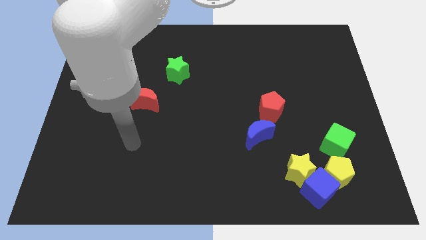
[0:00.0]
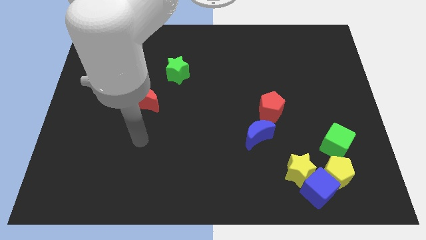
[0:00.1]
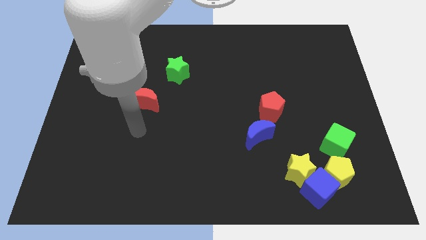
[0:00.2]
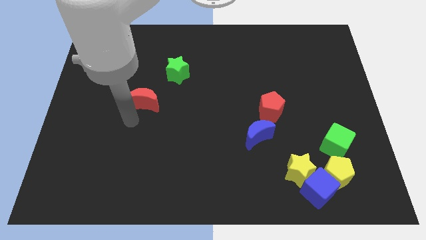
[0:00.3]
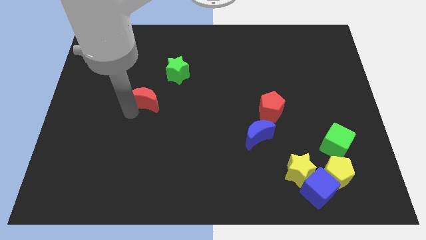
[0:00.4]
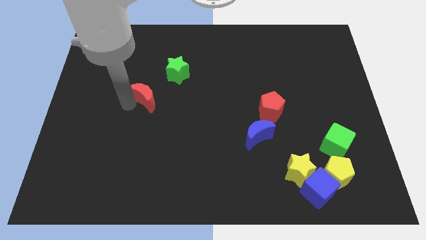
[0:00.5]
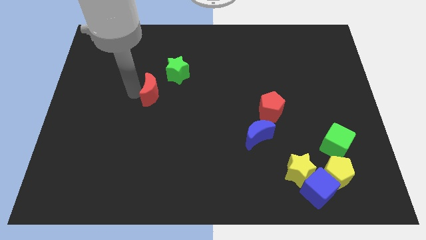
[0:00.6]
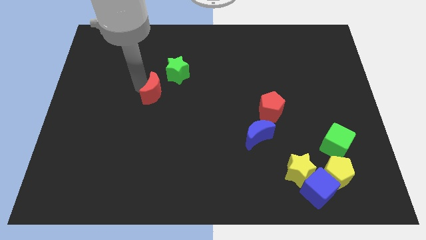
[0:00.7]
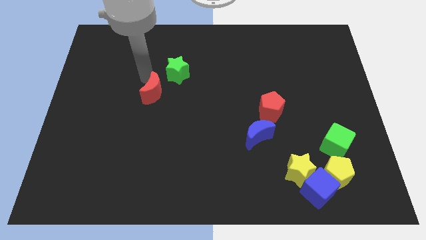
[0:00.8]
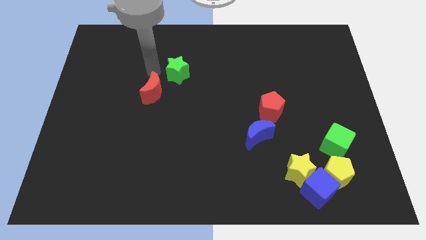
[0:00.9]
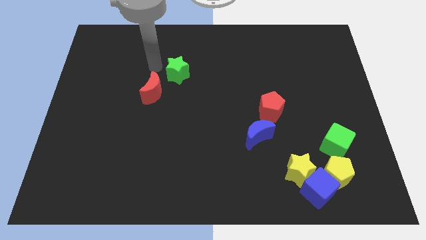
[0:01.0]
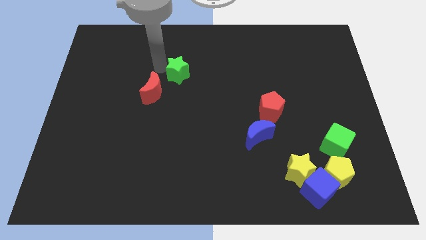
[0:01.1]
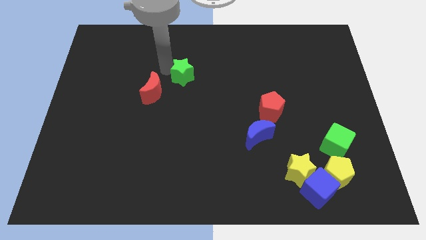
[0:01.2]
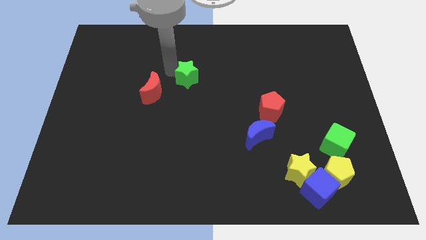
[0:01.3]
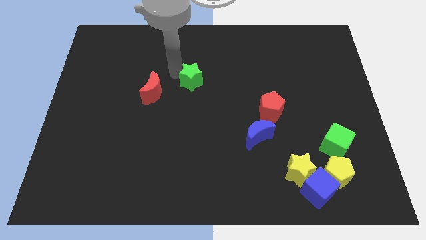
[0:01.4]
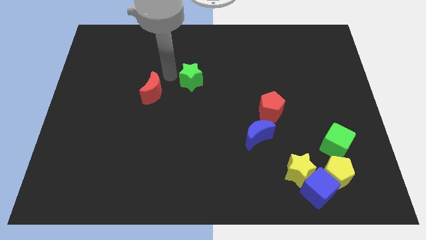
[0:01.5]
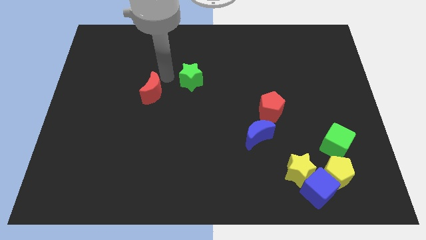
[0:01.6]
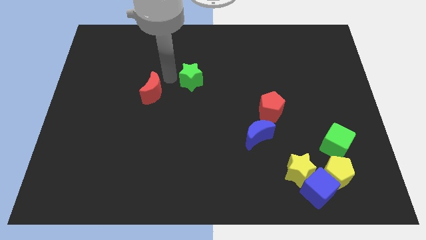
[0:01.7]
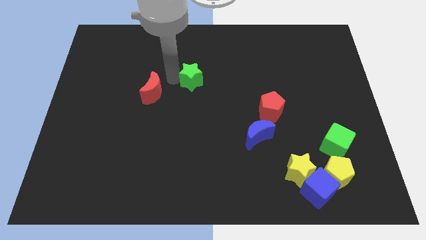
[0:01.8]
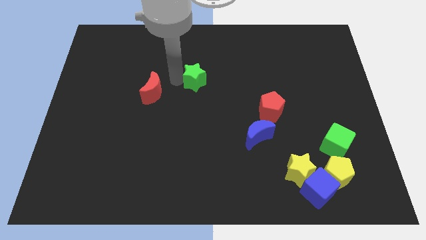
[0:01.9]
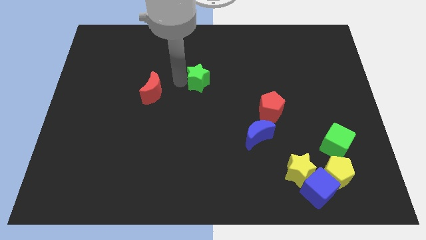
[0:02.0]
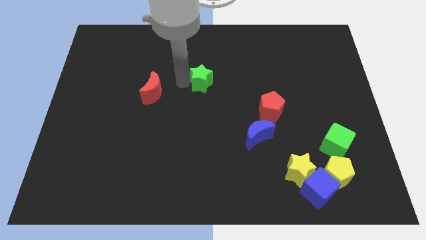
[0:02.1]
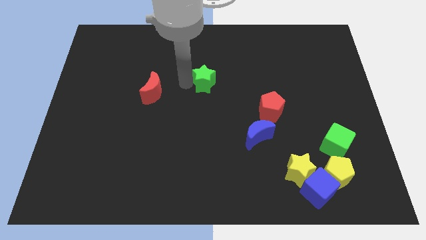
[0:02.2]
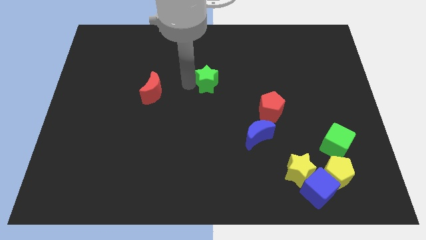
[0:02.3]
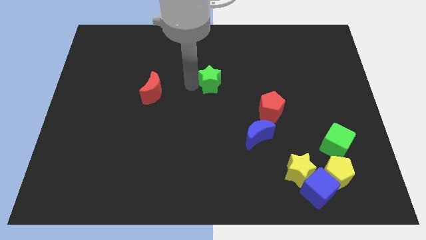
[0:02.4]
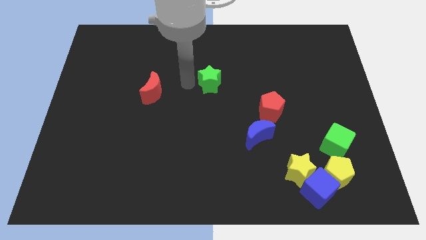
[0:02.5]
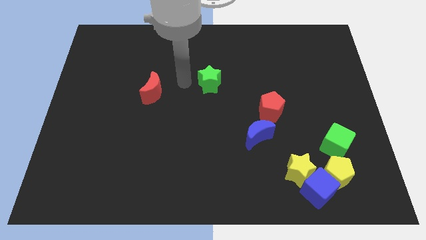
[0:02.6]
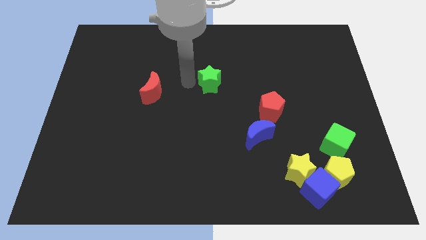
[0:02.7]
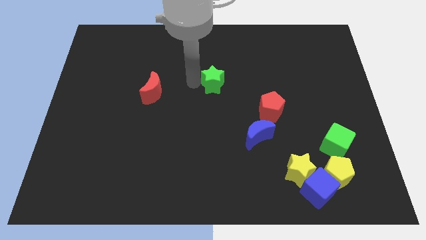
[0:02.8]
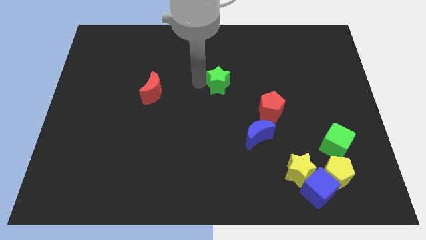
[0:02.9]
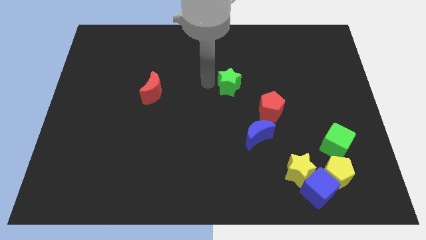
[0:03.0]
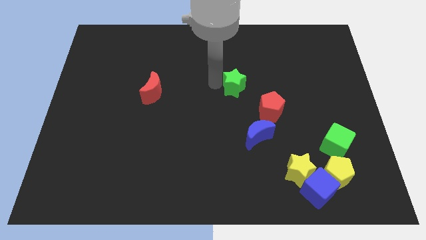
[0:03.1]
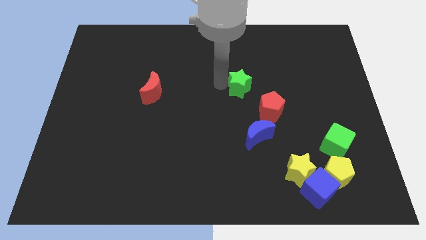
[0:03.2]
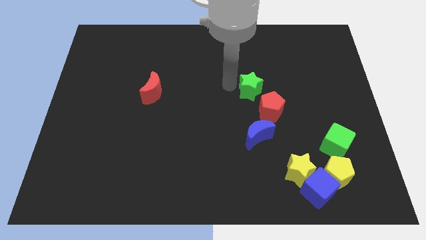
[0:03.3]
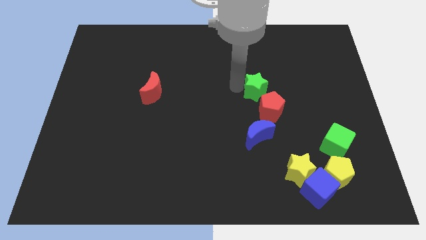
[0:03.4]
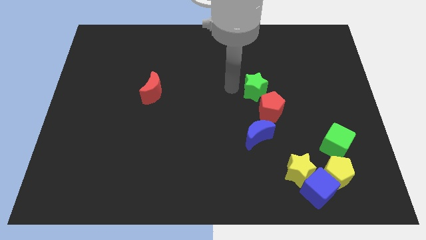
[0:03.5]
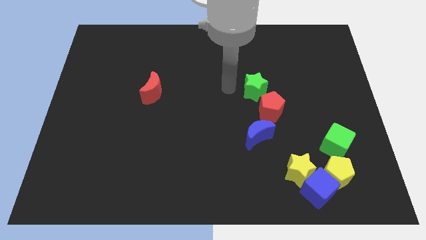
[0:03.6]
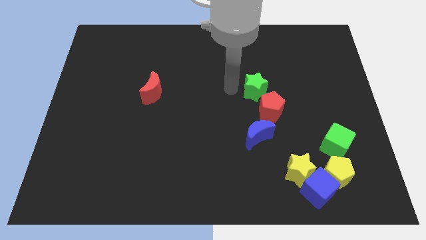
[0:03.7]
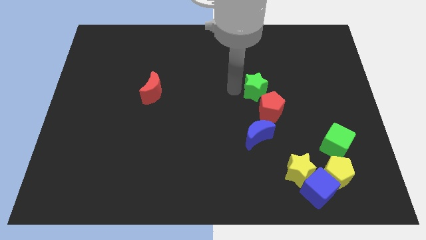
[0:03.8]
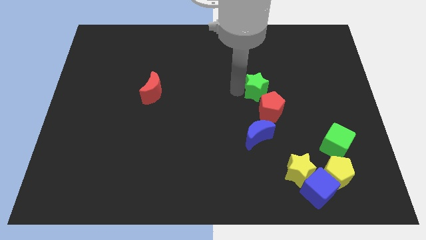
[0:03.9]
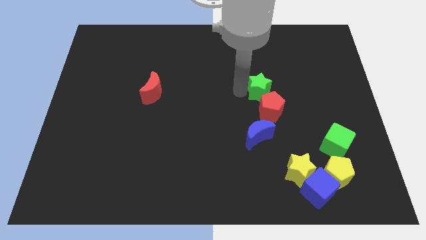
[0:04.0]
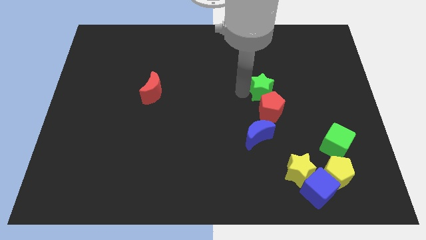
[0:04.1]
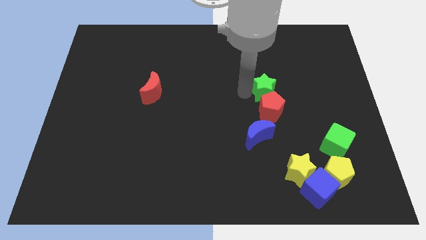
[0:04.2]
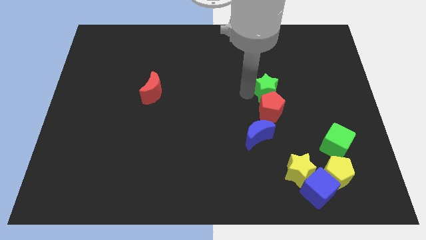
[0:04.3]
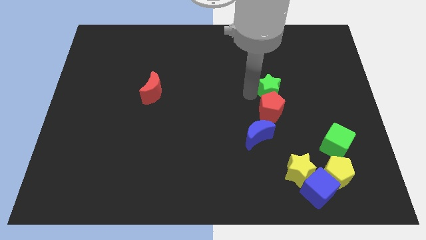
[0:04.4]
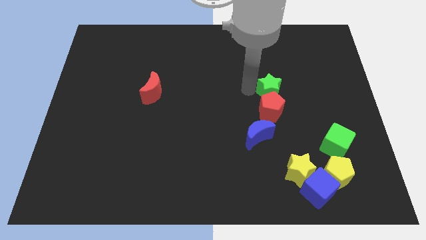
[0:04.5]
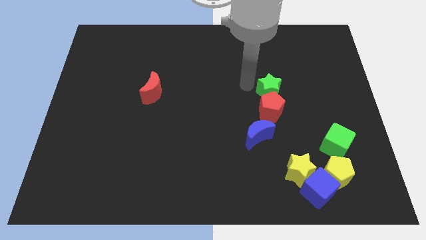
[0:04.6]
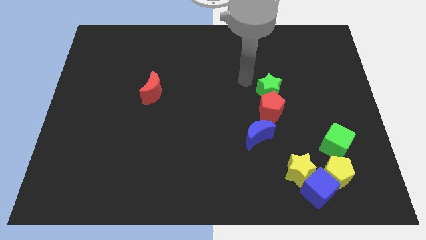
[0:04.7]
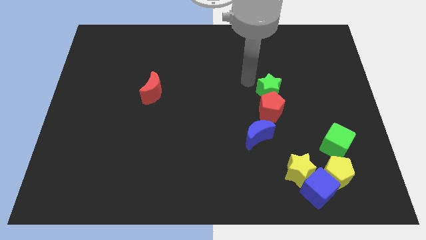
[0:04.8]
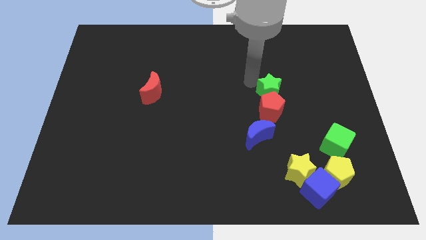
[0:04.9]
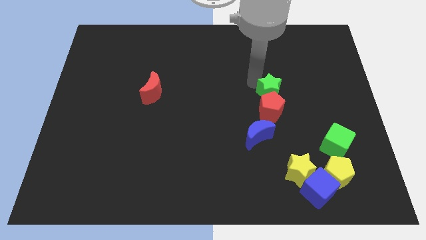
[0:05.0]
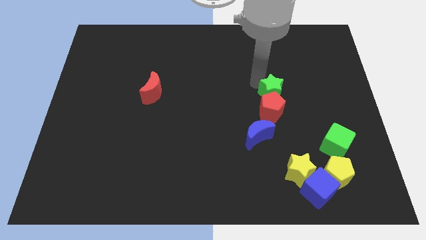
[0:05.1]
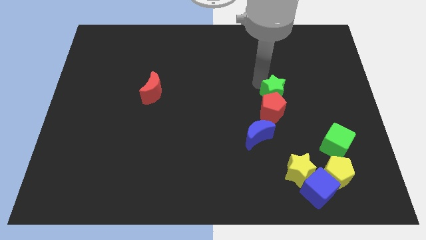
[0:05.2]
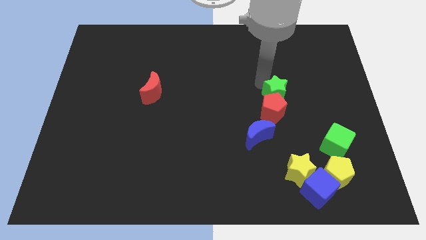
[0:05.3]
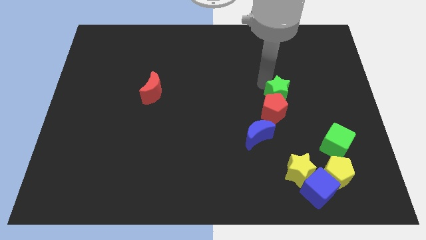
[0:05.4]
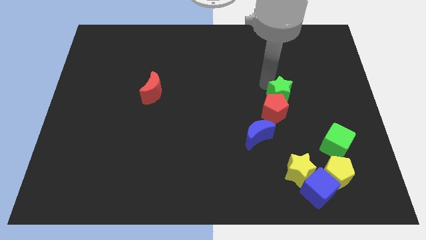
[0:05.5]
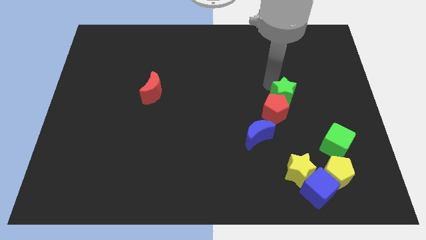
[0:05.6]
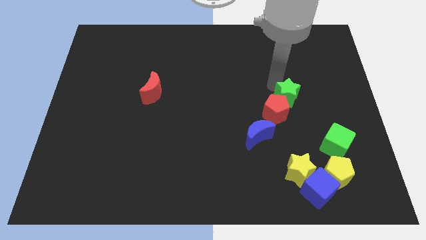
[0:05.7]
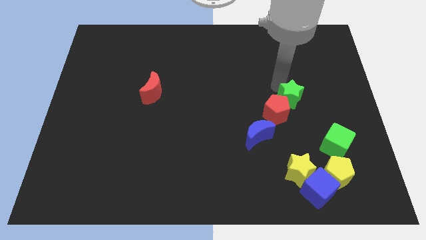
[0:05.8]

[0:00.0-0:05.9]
move the green star just right of the red pentagon

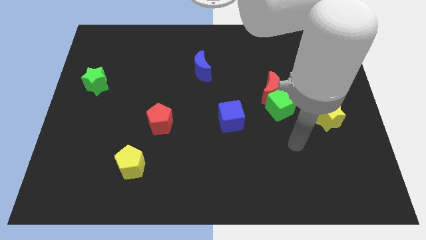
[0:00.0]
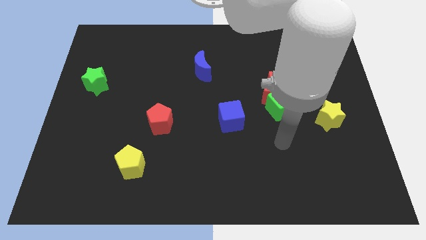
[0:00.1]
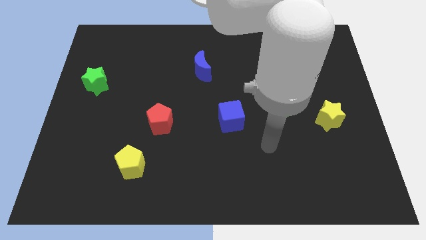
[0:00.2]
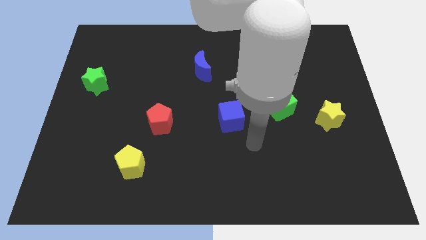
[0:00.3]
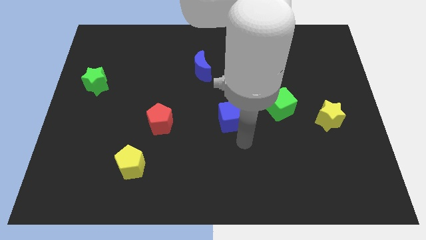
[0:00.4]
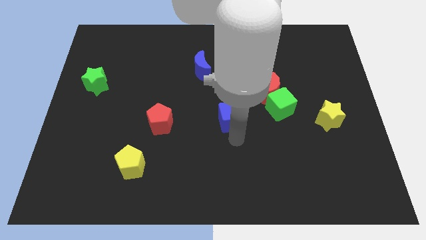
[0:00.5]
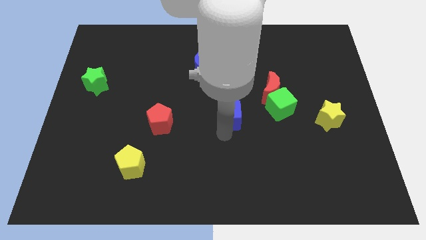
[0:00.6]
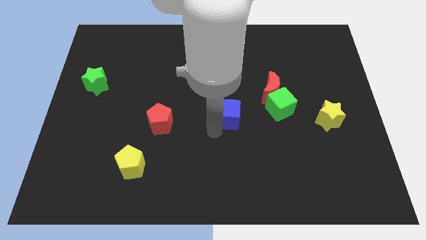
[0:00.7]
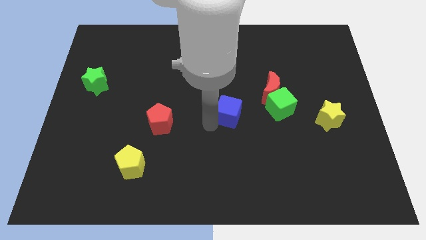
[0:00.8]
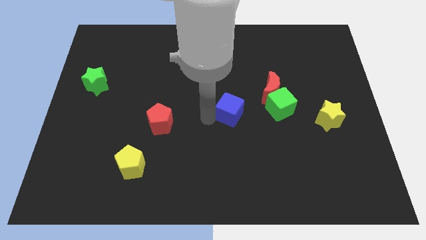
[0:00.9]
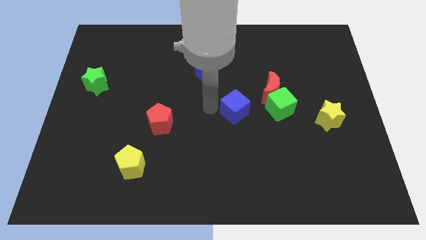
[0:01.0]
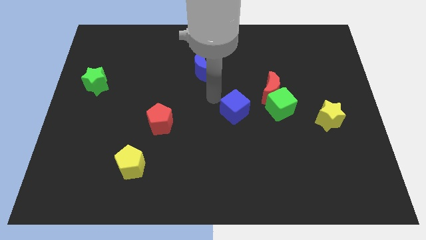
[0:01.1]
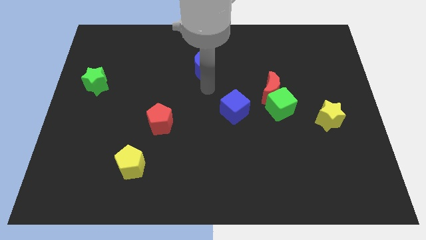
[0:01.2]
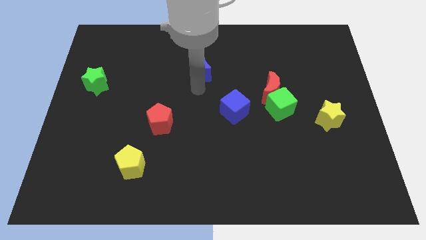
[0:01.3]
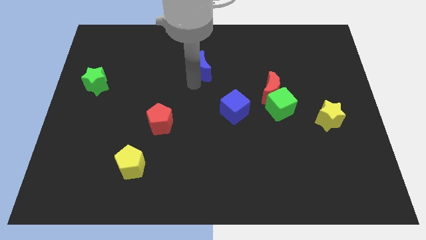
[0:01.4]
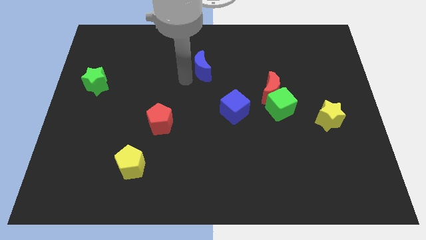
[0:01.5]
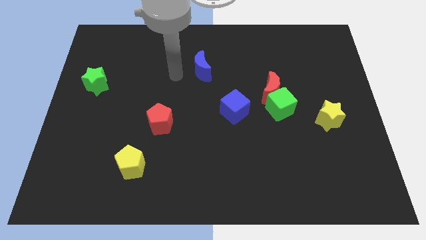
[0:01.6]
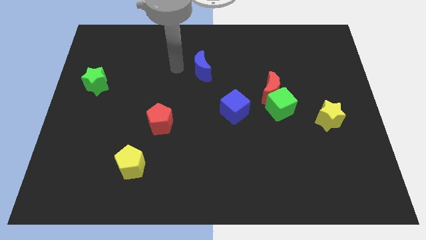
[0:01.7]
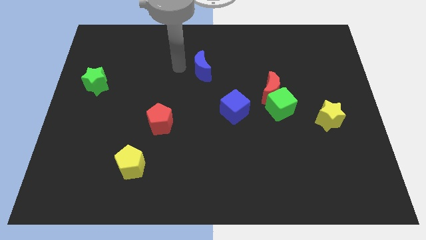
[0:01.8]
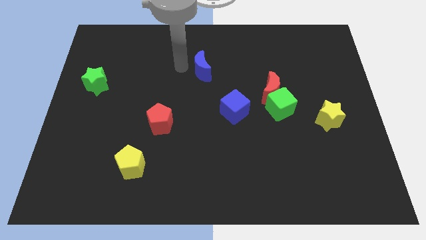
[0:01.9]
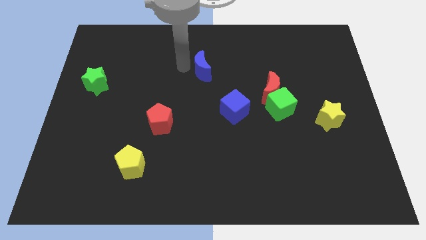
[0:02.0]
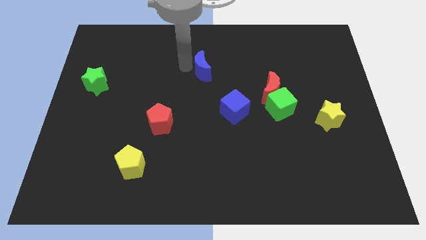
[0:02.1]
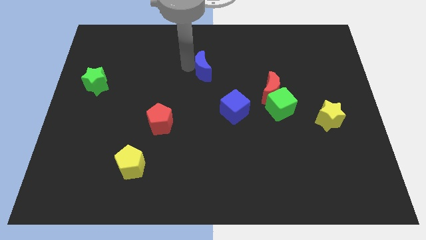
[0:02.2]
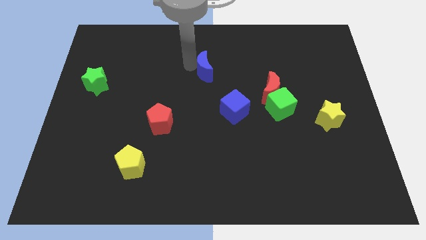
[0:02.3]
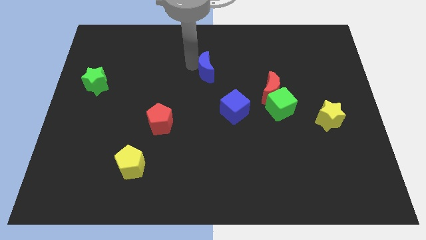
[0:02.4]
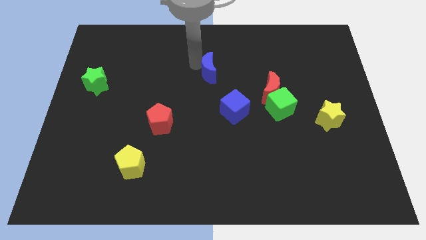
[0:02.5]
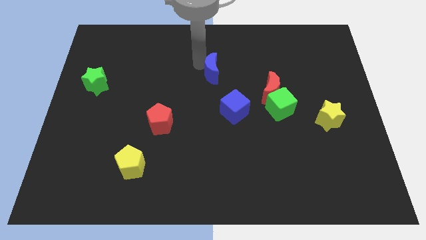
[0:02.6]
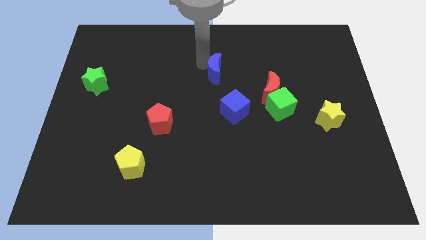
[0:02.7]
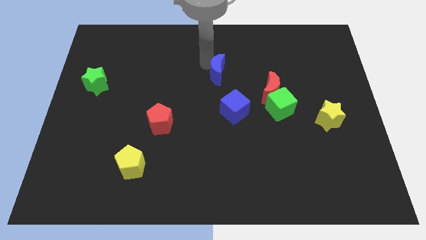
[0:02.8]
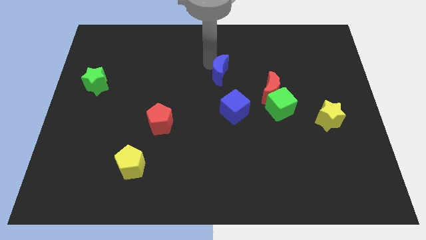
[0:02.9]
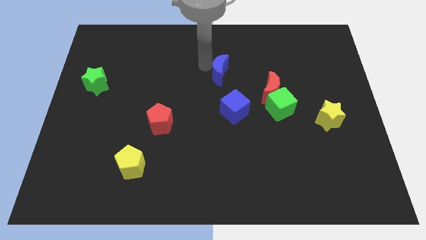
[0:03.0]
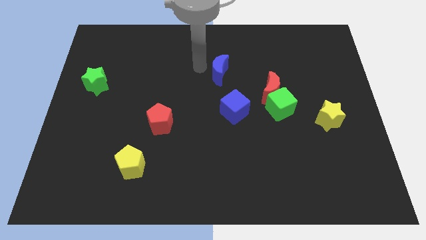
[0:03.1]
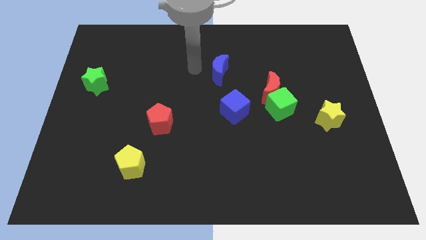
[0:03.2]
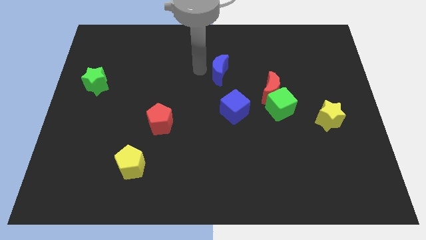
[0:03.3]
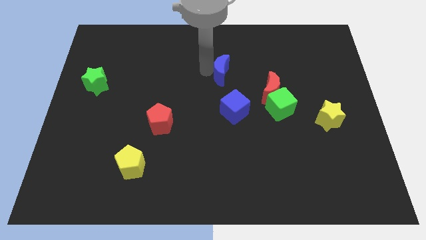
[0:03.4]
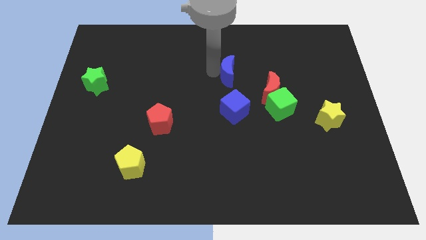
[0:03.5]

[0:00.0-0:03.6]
push the blue moon to the top left of the red moon
